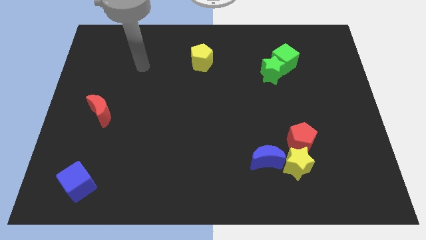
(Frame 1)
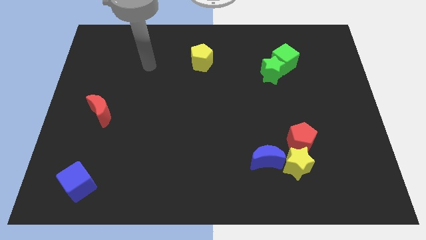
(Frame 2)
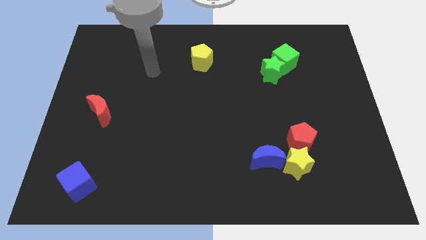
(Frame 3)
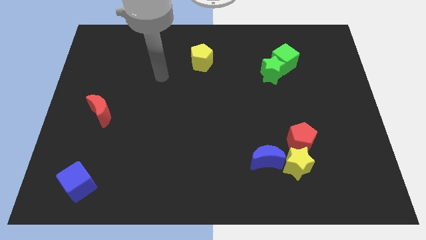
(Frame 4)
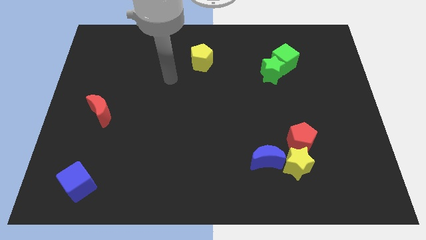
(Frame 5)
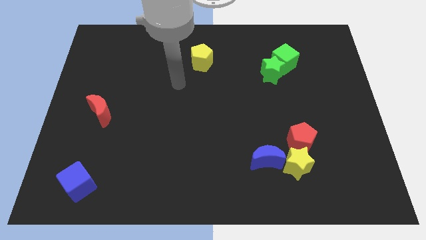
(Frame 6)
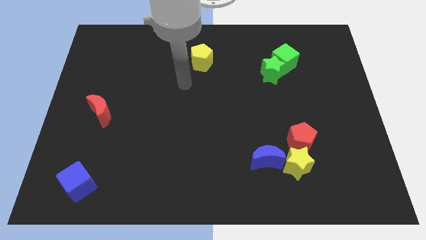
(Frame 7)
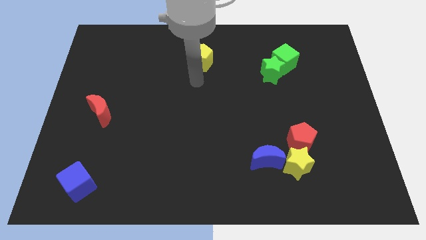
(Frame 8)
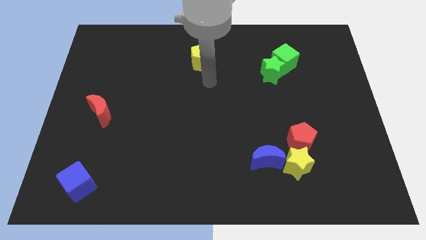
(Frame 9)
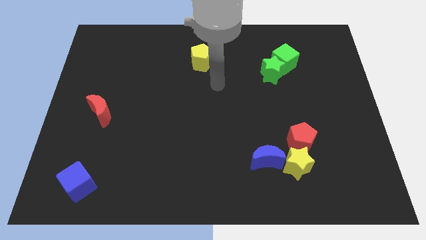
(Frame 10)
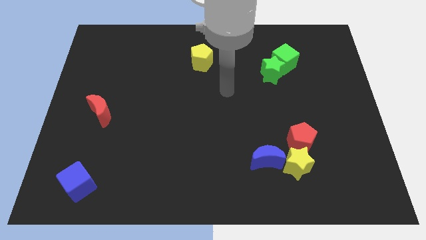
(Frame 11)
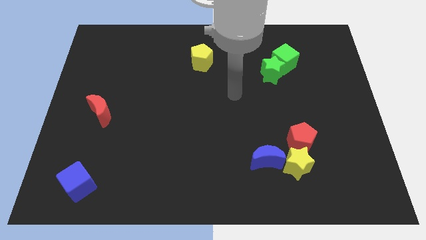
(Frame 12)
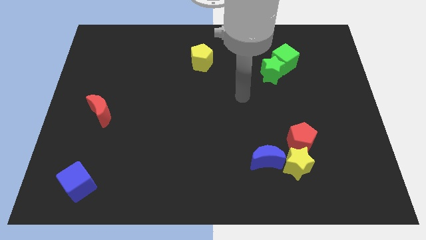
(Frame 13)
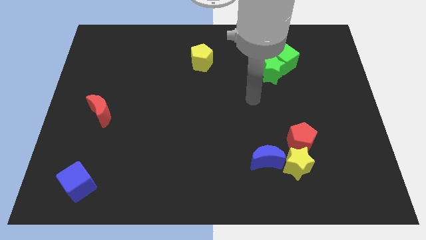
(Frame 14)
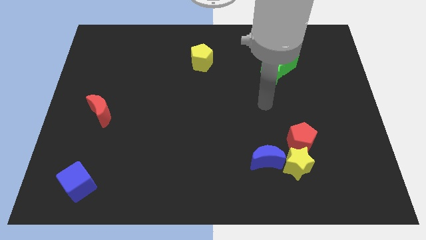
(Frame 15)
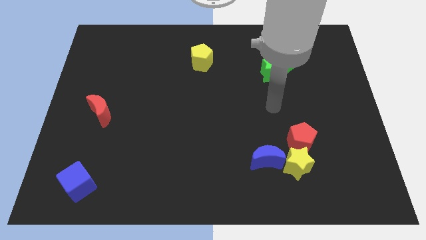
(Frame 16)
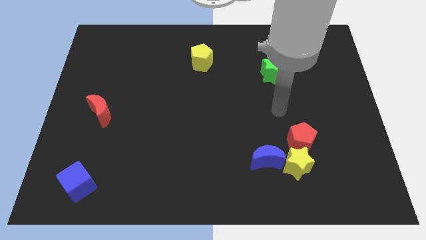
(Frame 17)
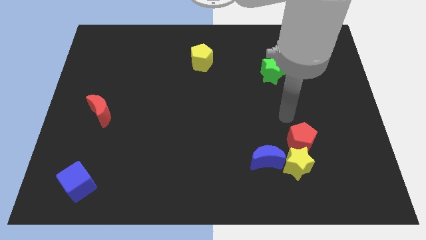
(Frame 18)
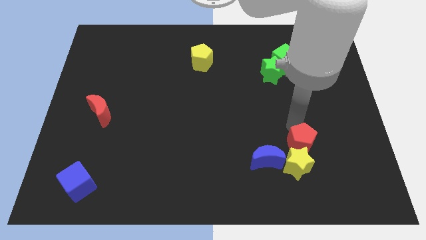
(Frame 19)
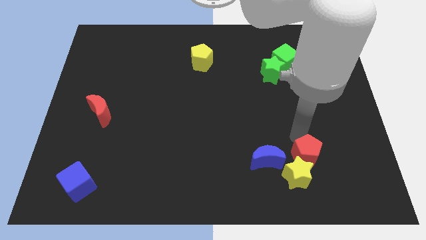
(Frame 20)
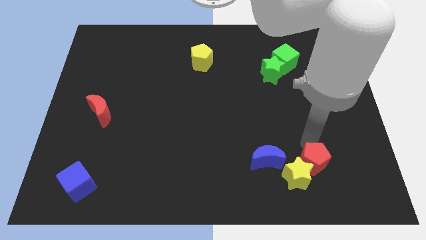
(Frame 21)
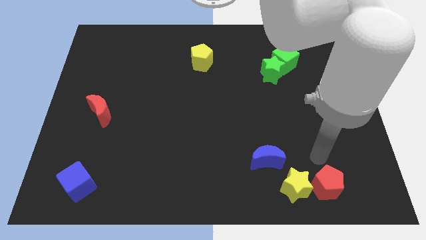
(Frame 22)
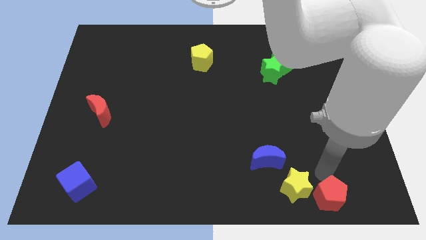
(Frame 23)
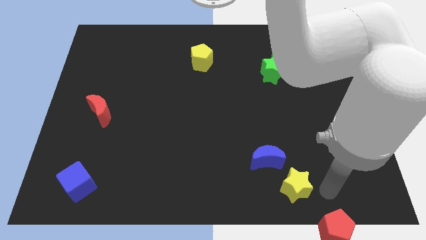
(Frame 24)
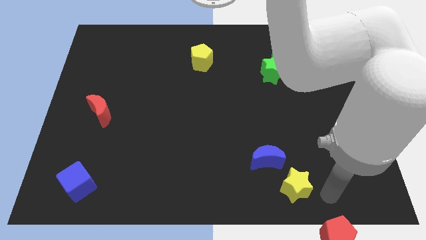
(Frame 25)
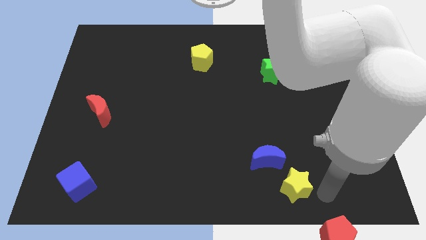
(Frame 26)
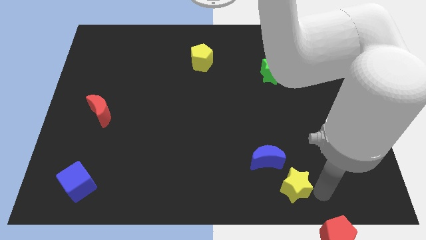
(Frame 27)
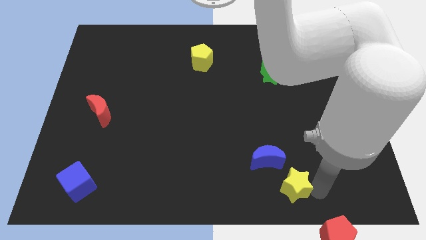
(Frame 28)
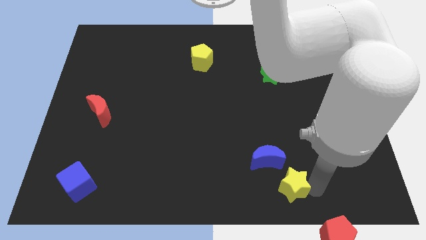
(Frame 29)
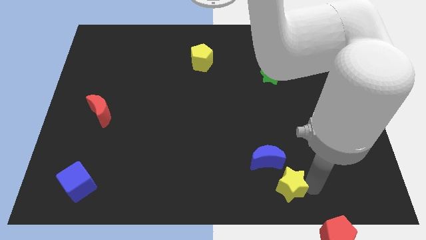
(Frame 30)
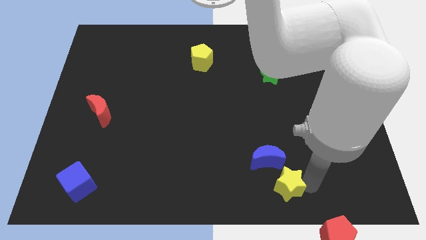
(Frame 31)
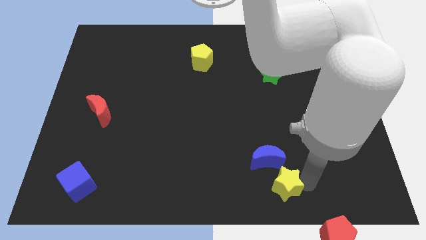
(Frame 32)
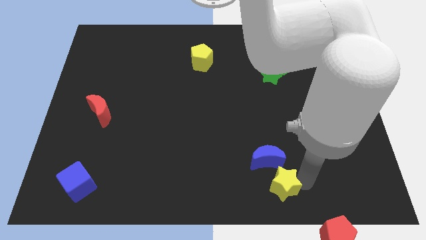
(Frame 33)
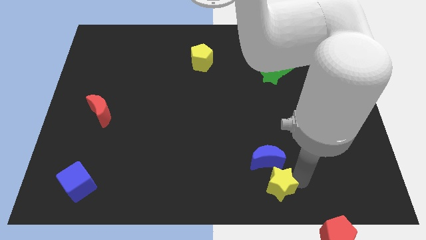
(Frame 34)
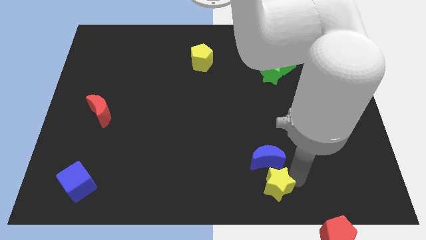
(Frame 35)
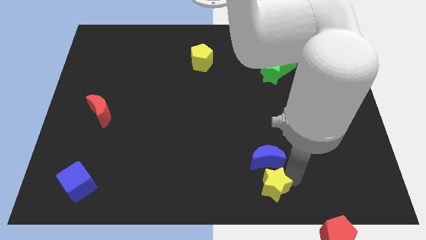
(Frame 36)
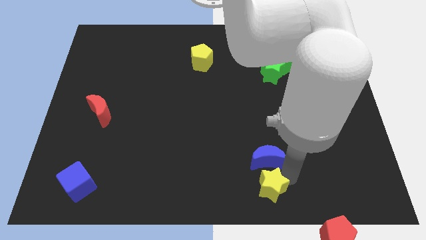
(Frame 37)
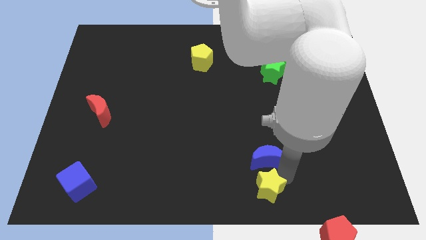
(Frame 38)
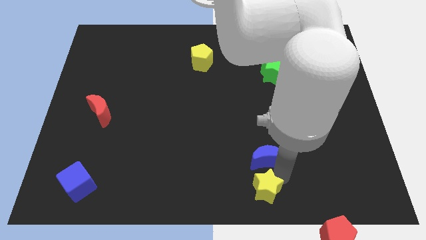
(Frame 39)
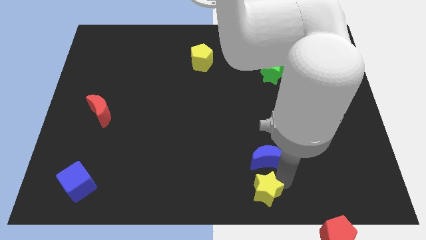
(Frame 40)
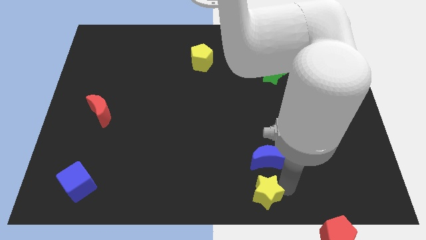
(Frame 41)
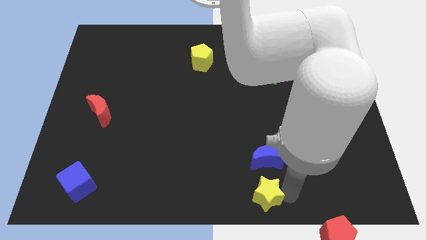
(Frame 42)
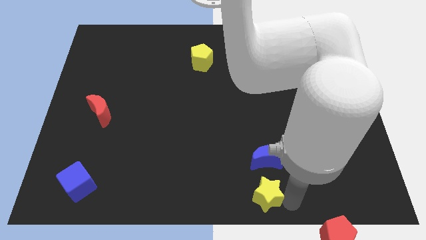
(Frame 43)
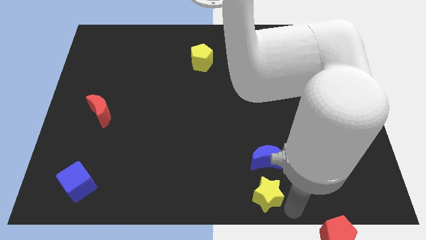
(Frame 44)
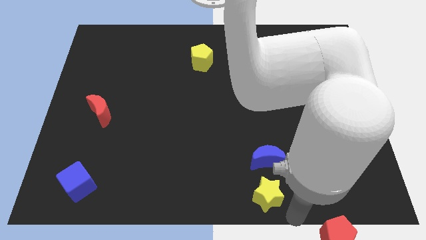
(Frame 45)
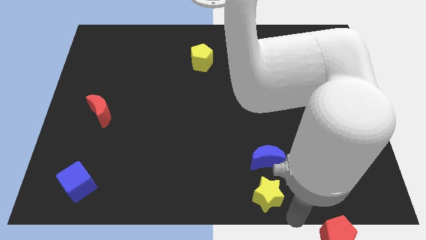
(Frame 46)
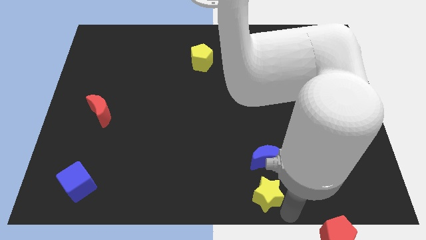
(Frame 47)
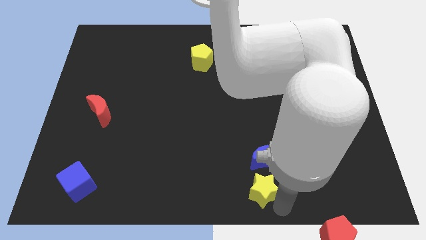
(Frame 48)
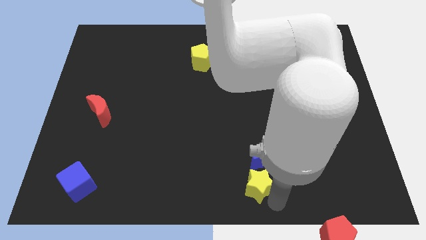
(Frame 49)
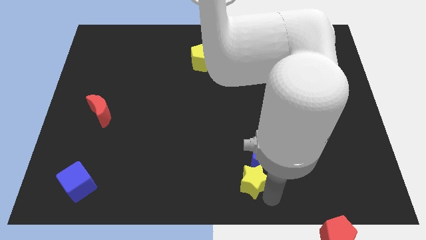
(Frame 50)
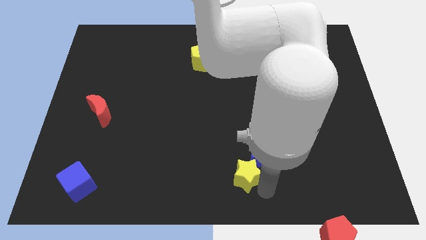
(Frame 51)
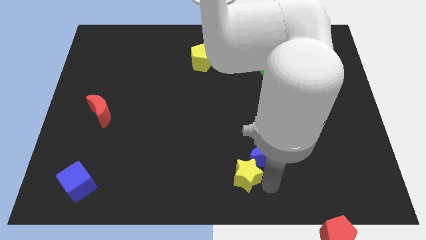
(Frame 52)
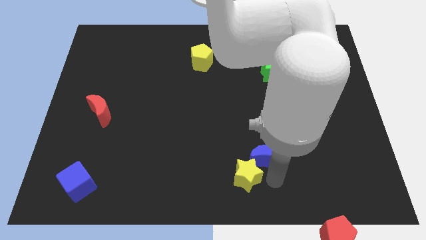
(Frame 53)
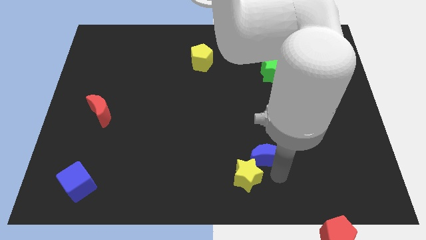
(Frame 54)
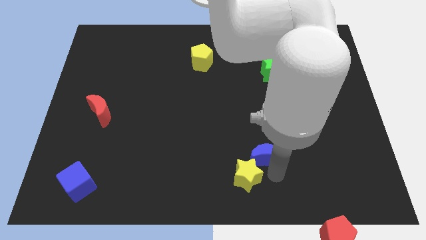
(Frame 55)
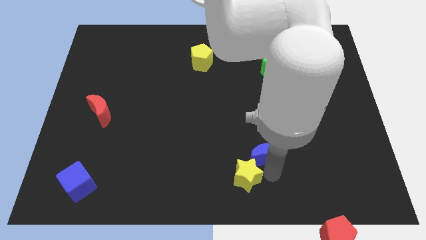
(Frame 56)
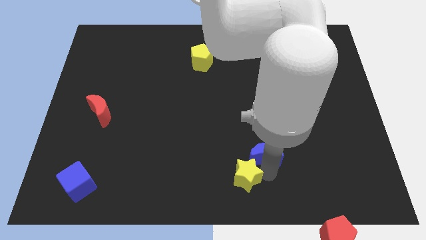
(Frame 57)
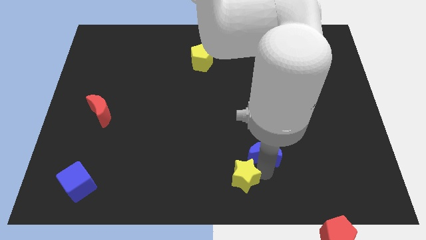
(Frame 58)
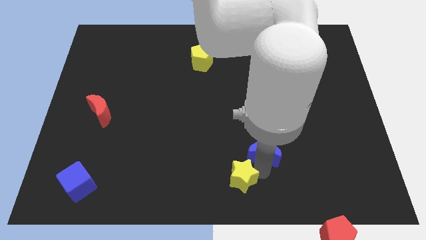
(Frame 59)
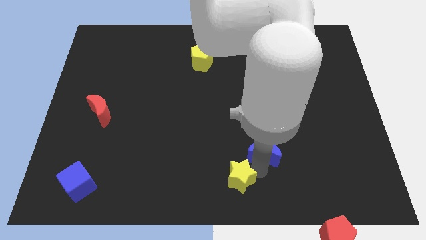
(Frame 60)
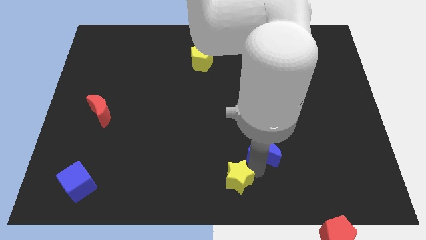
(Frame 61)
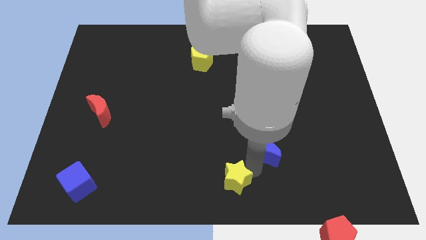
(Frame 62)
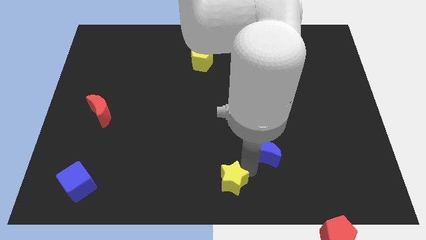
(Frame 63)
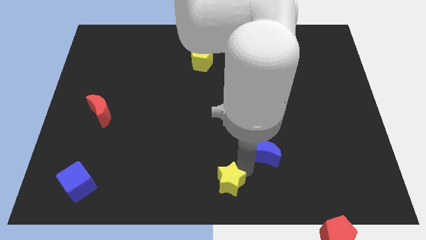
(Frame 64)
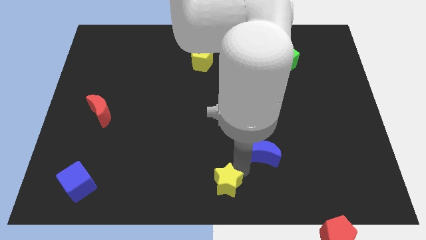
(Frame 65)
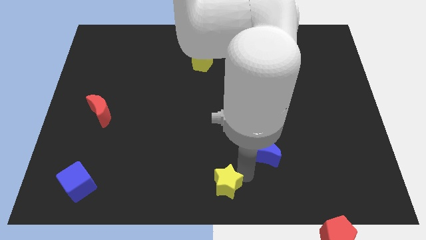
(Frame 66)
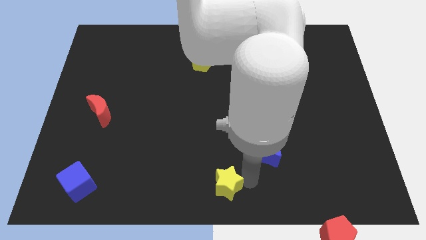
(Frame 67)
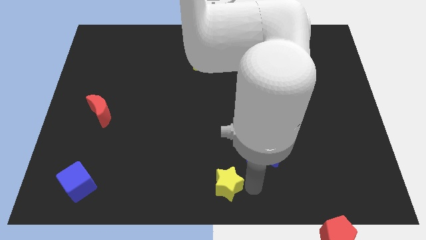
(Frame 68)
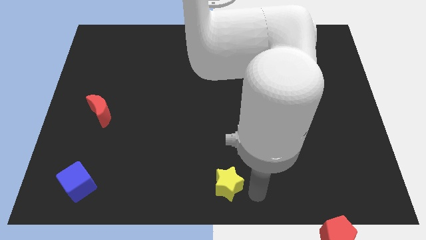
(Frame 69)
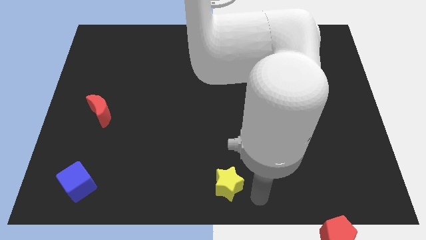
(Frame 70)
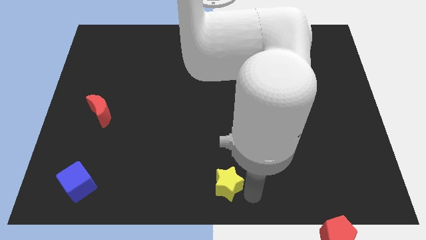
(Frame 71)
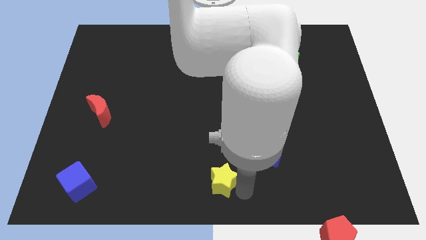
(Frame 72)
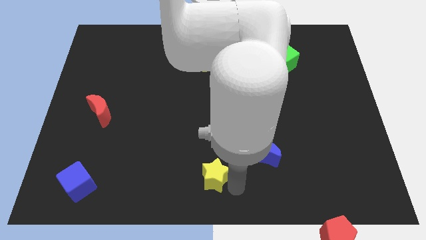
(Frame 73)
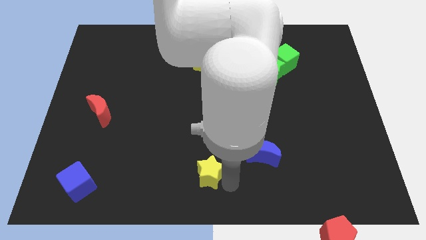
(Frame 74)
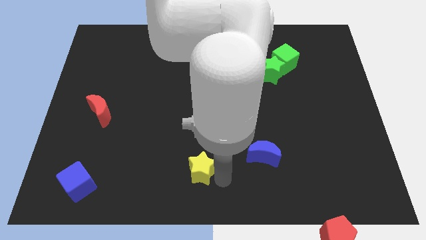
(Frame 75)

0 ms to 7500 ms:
push the yellow star to the left

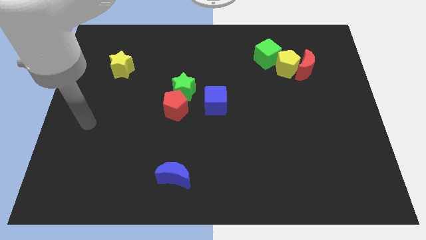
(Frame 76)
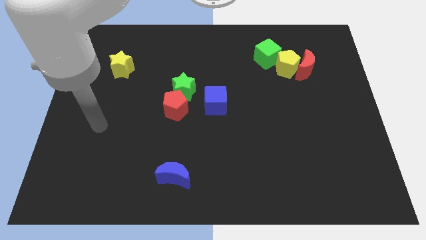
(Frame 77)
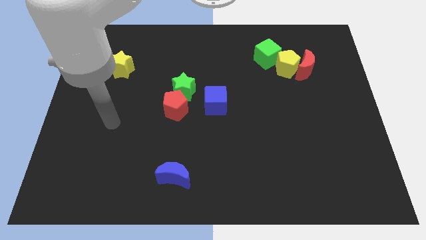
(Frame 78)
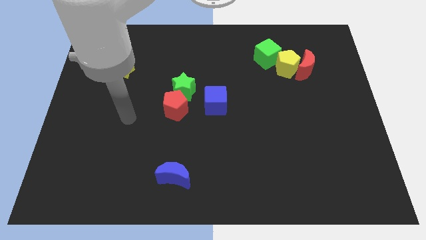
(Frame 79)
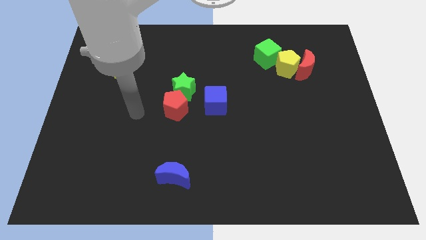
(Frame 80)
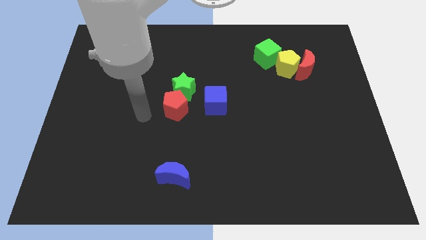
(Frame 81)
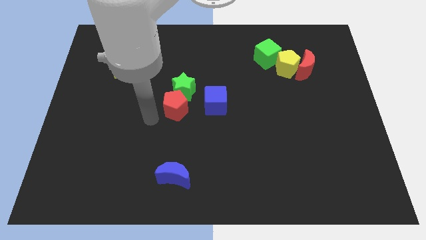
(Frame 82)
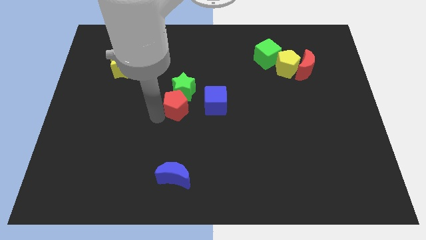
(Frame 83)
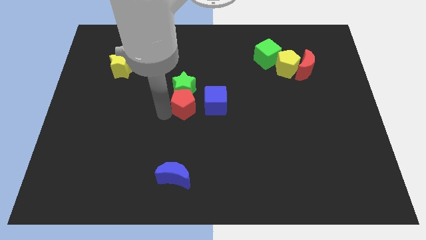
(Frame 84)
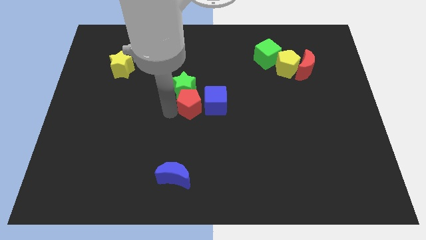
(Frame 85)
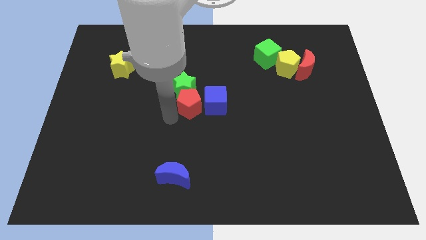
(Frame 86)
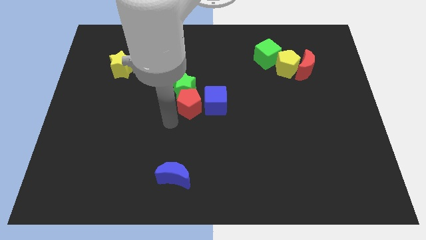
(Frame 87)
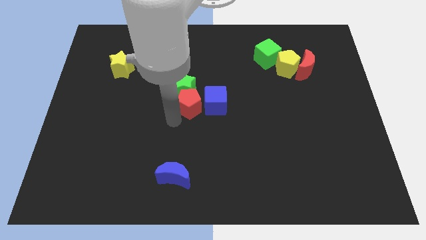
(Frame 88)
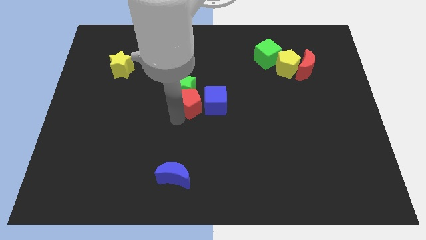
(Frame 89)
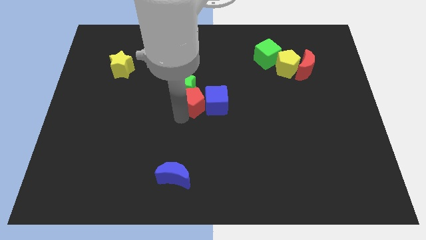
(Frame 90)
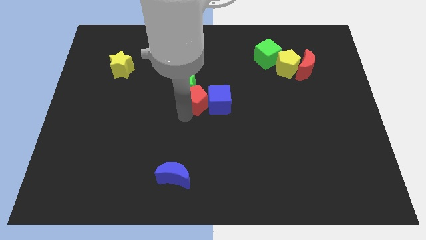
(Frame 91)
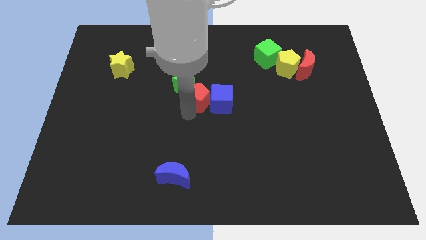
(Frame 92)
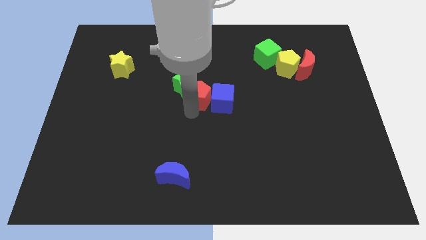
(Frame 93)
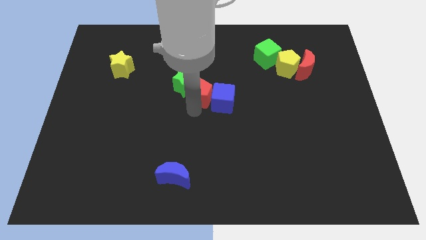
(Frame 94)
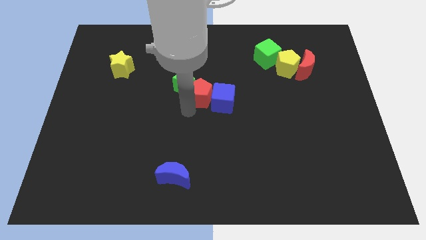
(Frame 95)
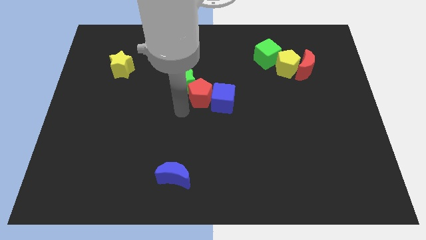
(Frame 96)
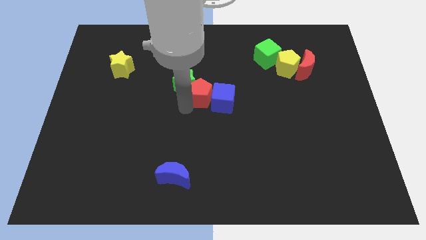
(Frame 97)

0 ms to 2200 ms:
slightly move the red pentagon up and then right
